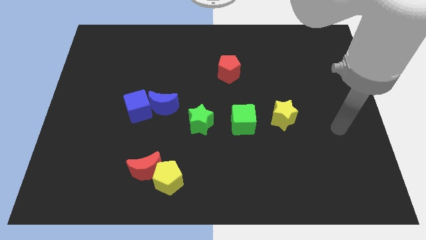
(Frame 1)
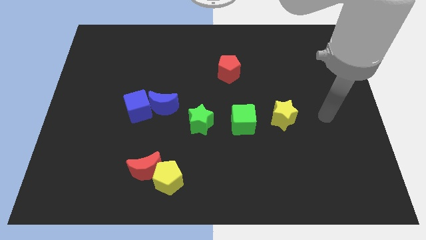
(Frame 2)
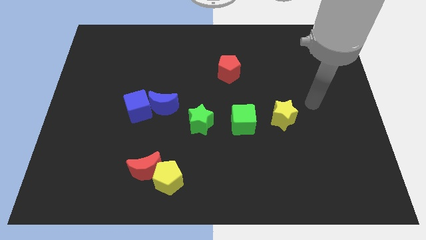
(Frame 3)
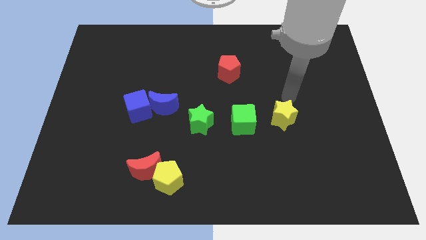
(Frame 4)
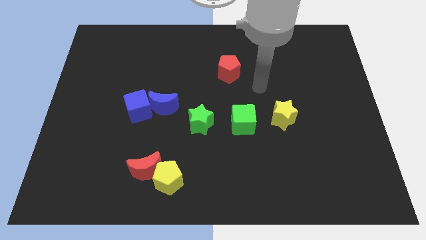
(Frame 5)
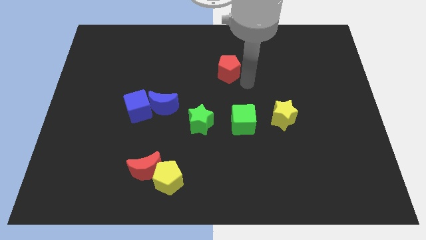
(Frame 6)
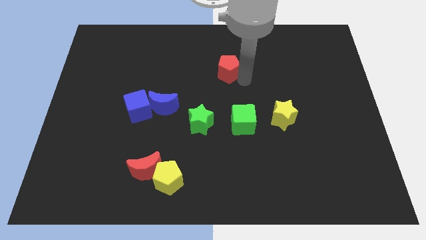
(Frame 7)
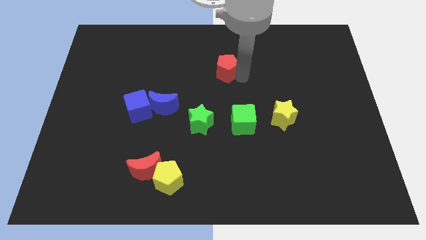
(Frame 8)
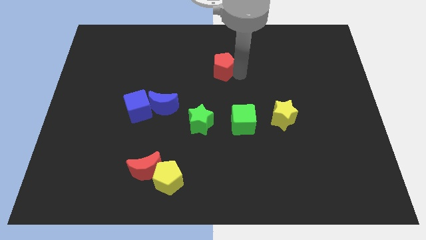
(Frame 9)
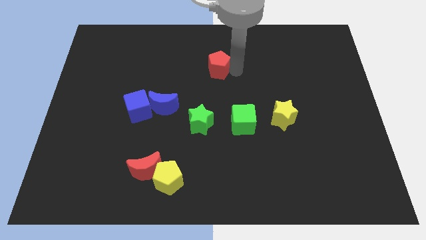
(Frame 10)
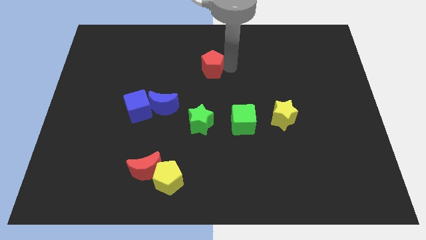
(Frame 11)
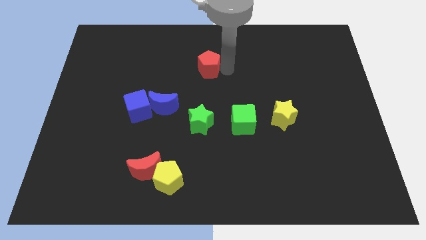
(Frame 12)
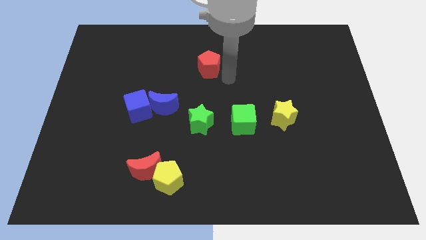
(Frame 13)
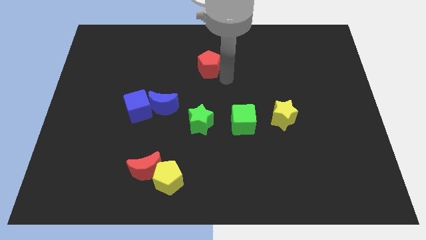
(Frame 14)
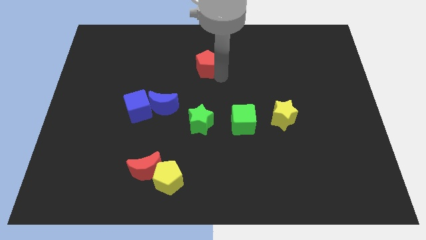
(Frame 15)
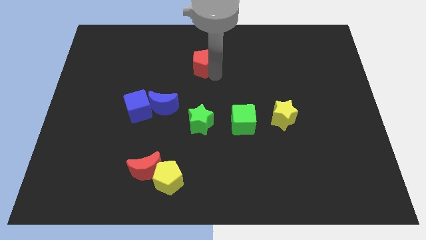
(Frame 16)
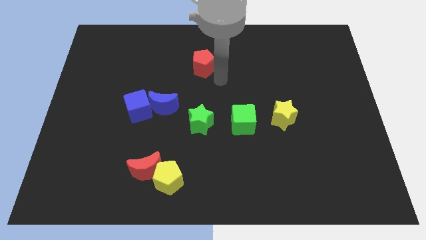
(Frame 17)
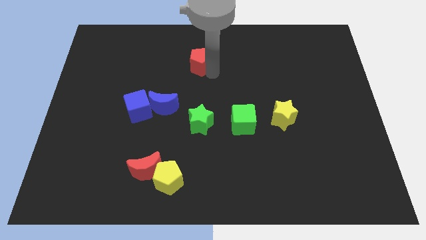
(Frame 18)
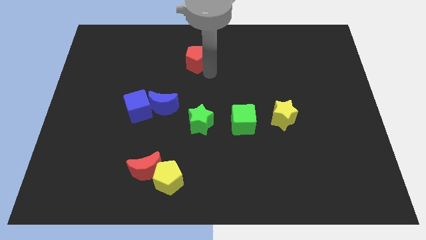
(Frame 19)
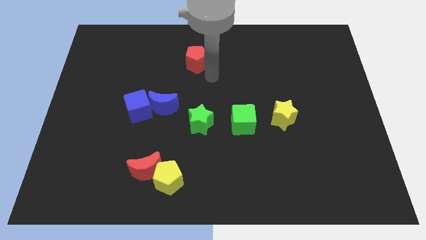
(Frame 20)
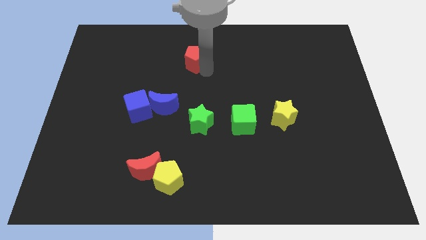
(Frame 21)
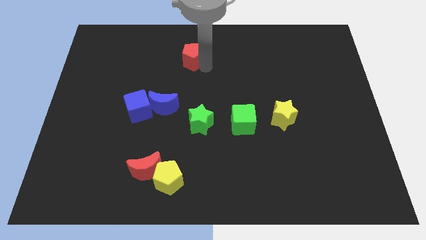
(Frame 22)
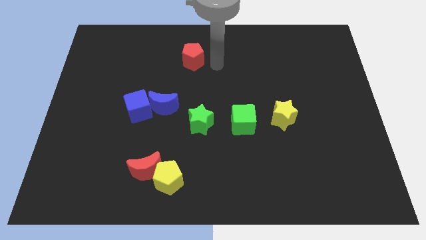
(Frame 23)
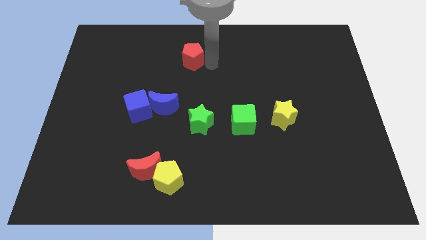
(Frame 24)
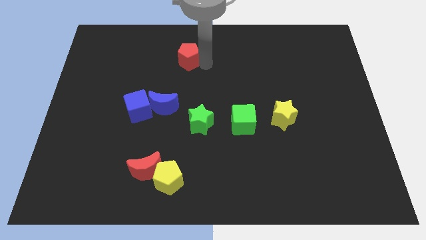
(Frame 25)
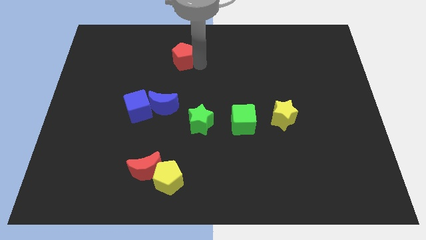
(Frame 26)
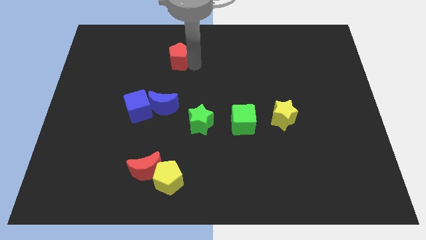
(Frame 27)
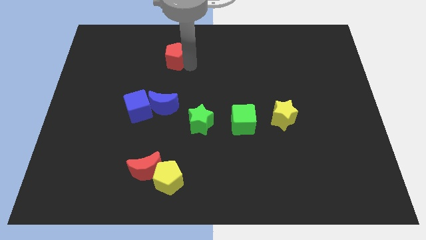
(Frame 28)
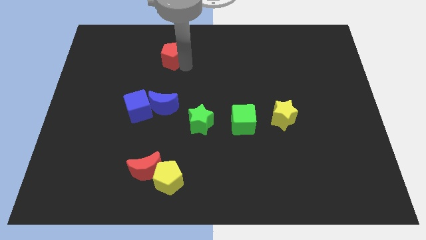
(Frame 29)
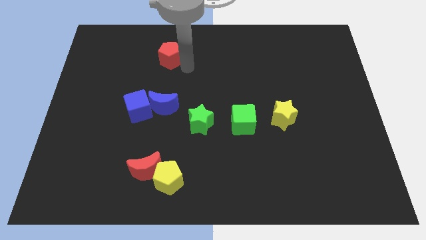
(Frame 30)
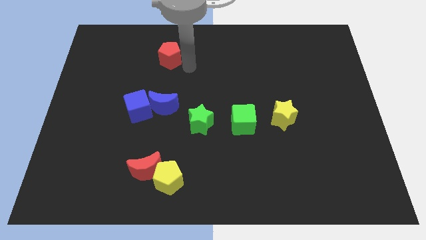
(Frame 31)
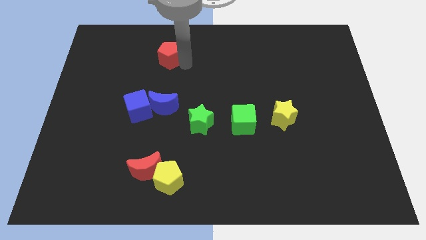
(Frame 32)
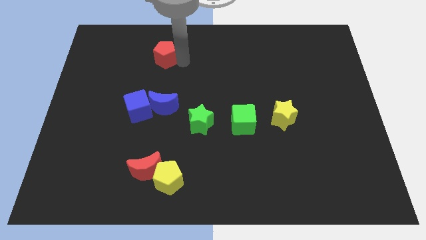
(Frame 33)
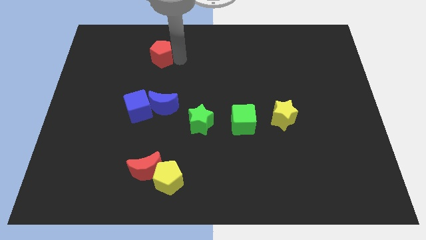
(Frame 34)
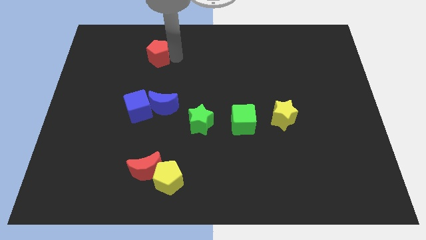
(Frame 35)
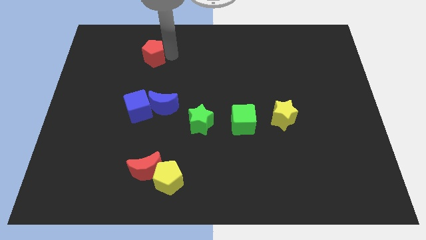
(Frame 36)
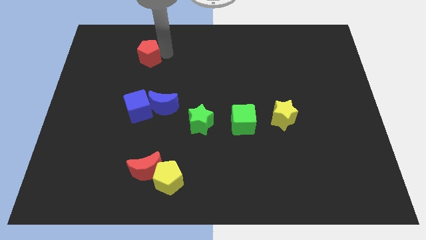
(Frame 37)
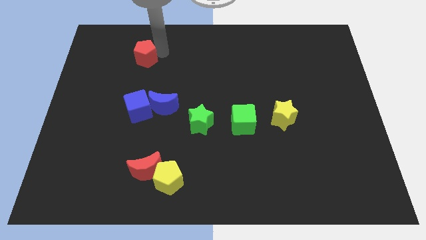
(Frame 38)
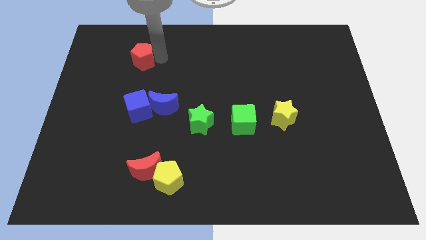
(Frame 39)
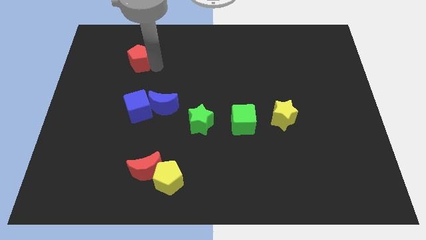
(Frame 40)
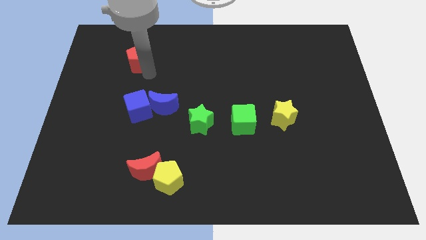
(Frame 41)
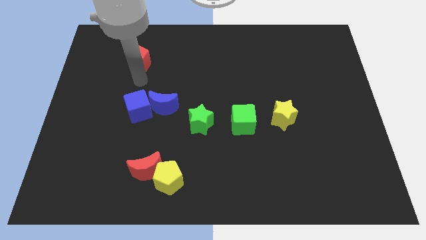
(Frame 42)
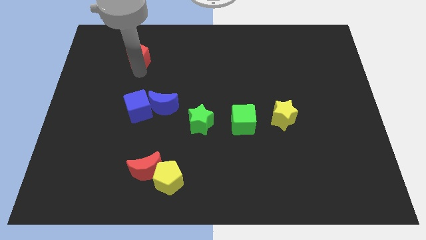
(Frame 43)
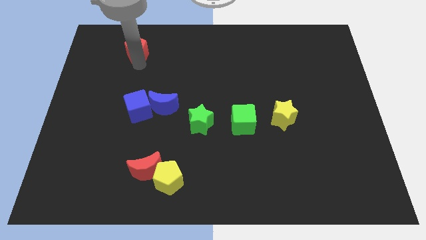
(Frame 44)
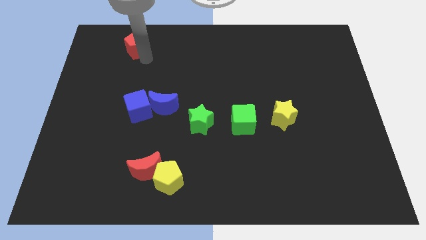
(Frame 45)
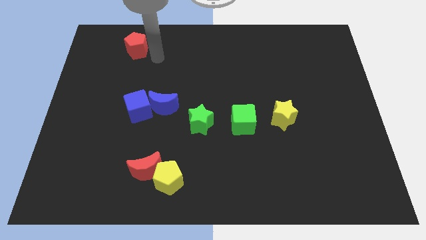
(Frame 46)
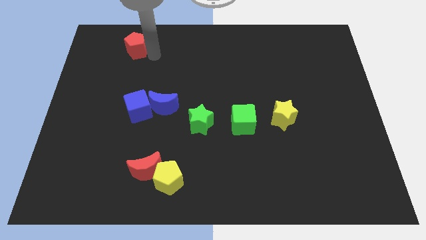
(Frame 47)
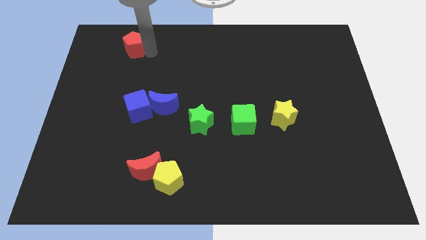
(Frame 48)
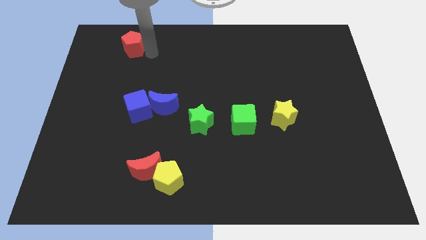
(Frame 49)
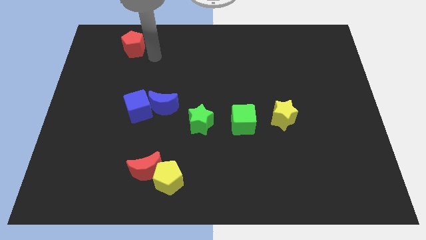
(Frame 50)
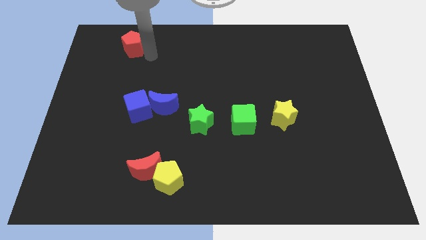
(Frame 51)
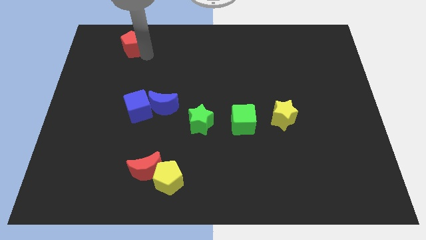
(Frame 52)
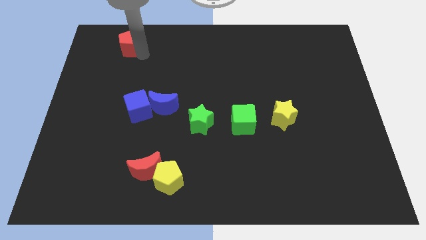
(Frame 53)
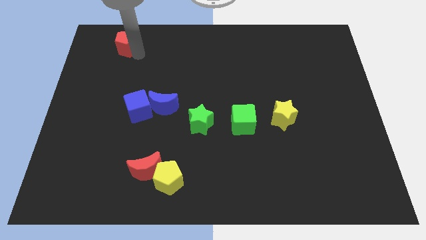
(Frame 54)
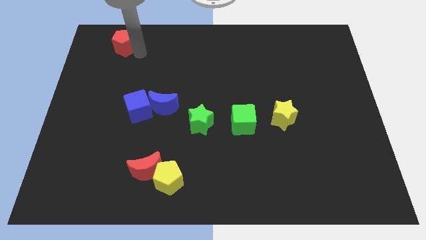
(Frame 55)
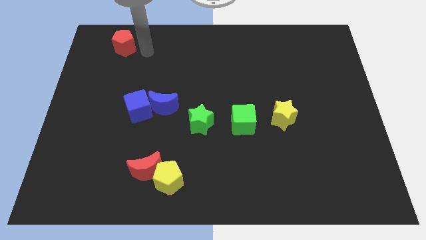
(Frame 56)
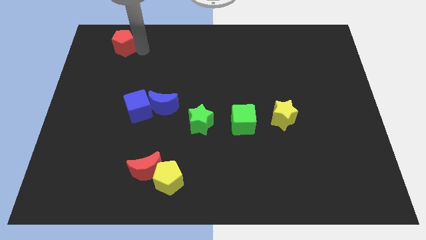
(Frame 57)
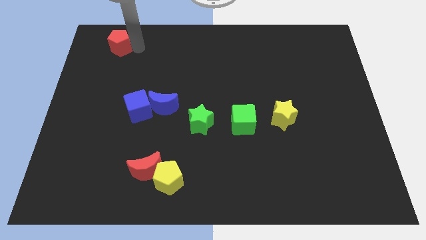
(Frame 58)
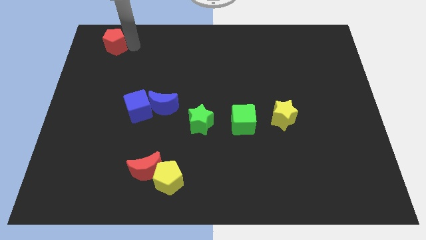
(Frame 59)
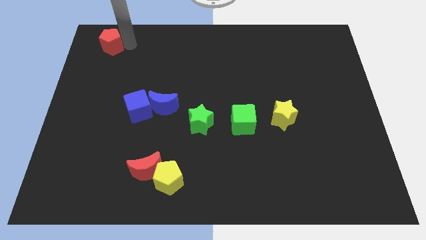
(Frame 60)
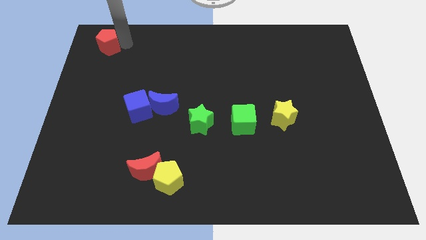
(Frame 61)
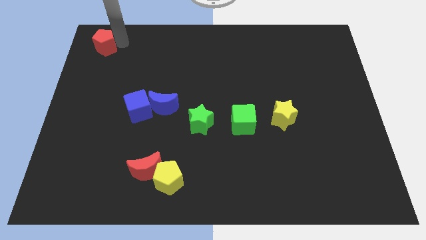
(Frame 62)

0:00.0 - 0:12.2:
move the red pentagon to the upper left corner

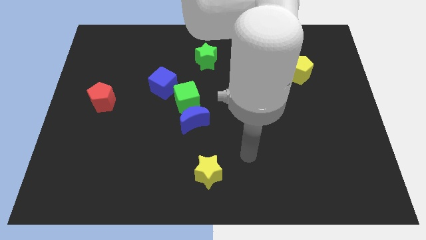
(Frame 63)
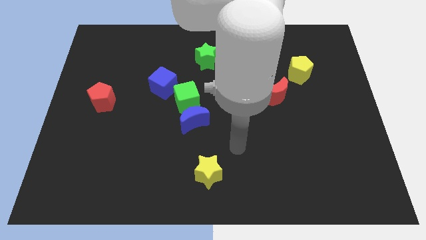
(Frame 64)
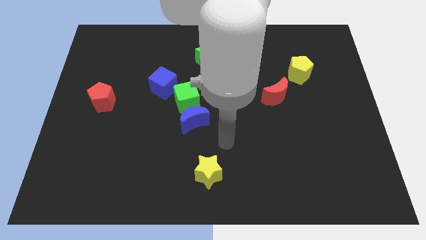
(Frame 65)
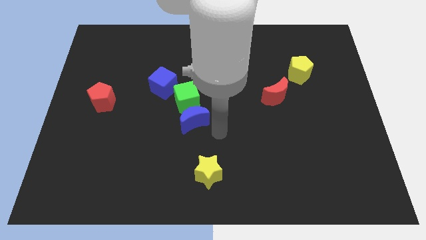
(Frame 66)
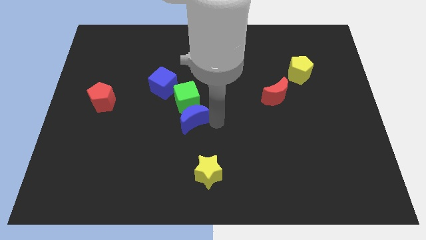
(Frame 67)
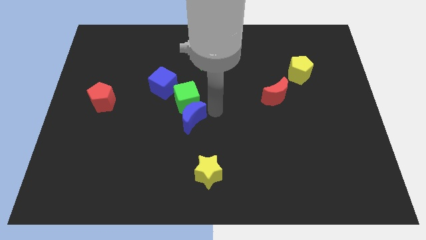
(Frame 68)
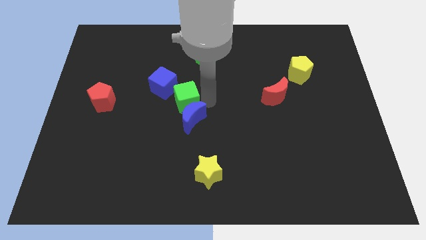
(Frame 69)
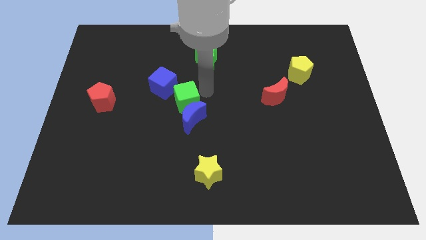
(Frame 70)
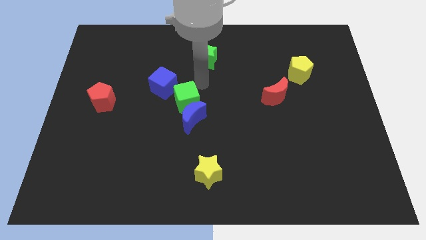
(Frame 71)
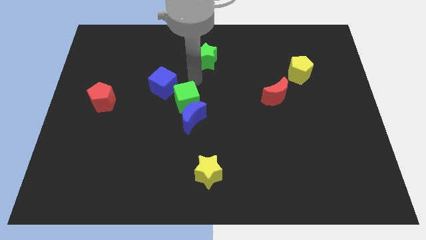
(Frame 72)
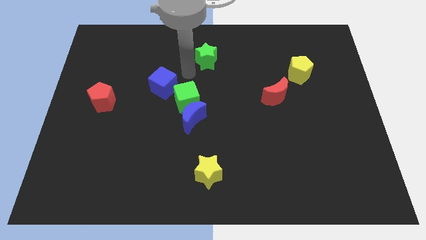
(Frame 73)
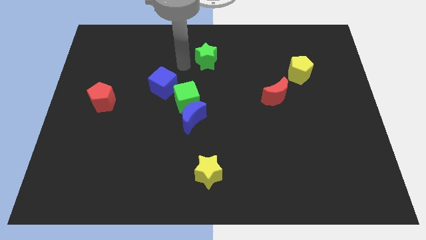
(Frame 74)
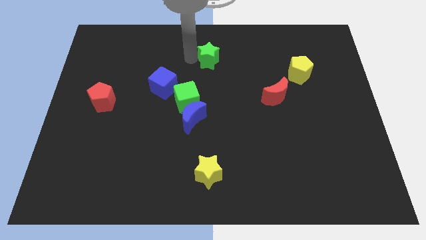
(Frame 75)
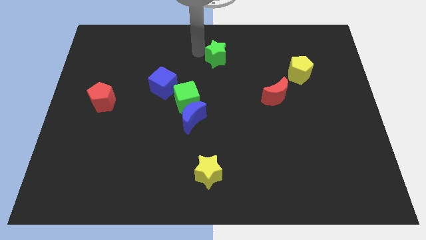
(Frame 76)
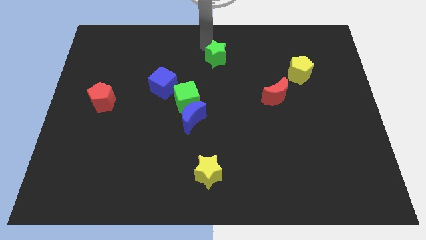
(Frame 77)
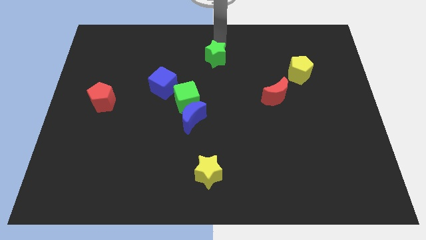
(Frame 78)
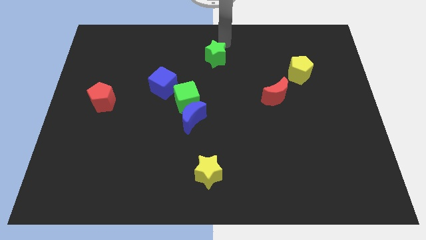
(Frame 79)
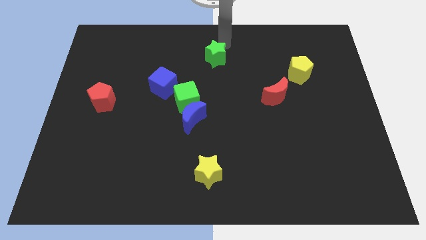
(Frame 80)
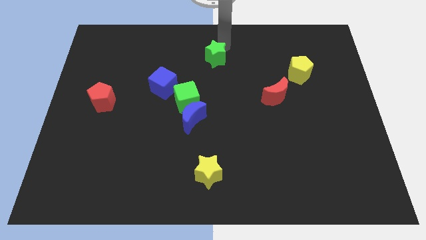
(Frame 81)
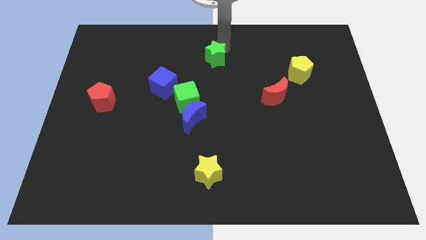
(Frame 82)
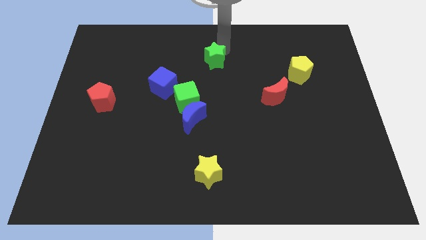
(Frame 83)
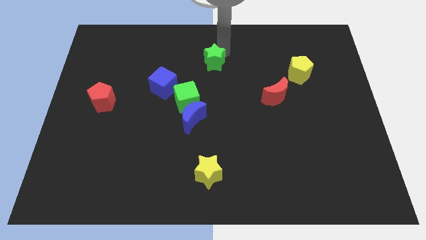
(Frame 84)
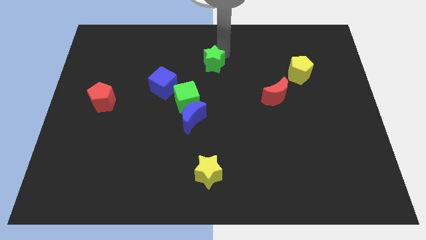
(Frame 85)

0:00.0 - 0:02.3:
put the green star to the middle
